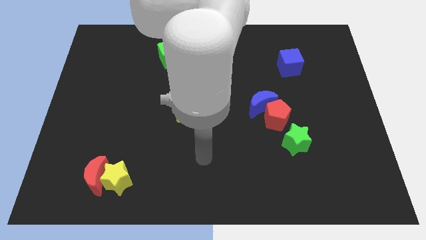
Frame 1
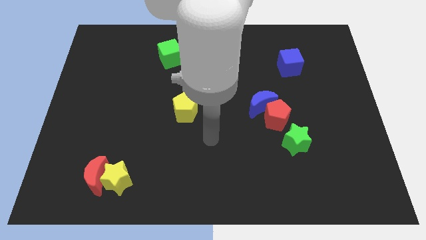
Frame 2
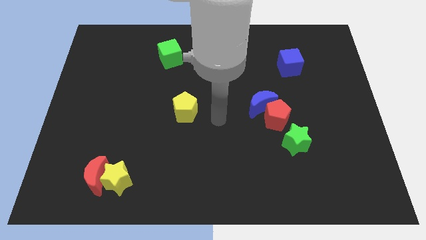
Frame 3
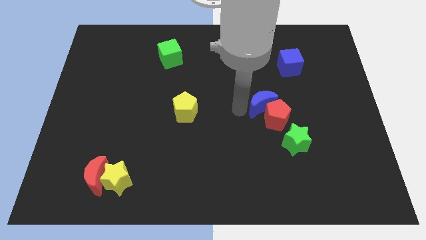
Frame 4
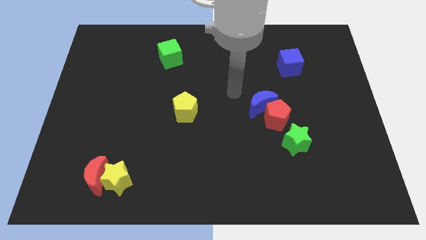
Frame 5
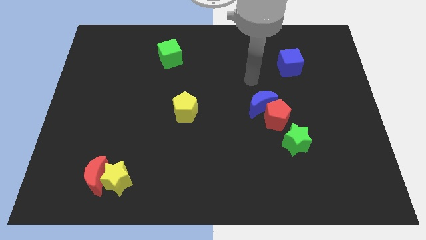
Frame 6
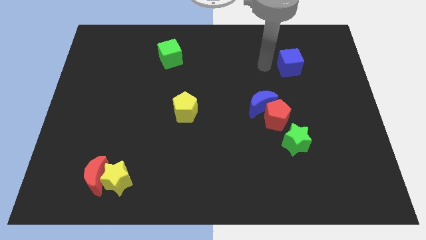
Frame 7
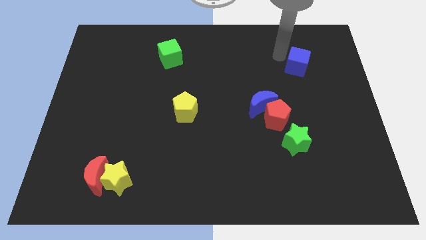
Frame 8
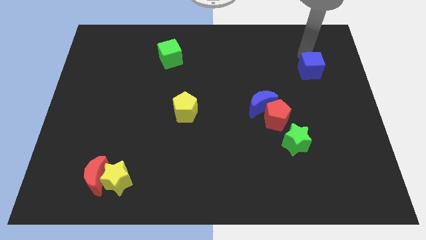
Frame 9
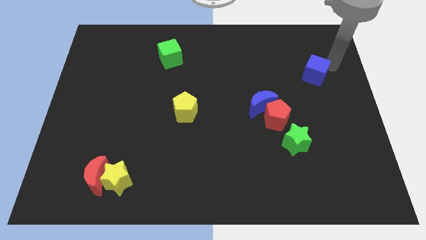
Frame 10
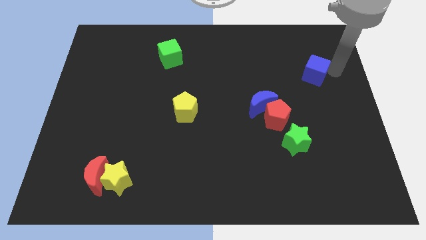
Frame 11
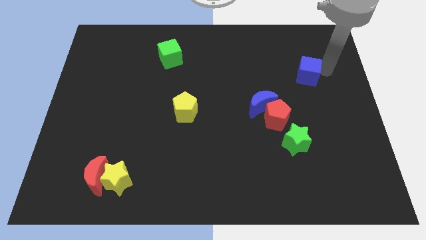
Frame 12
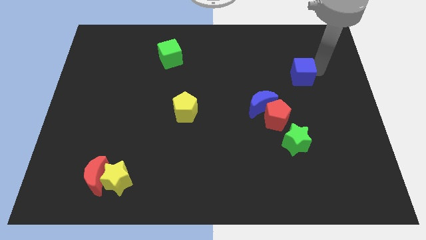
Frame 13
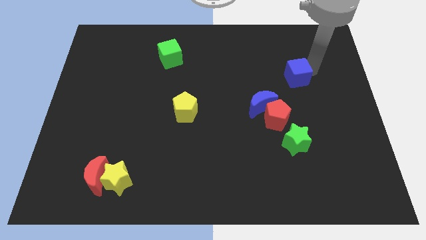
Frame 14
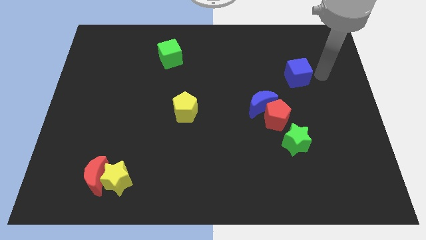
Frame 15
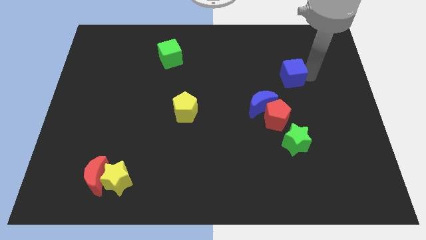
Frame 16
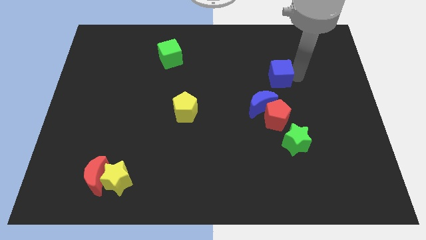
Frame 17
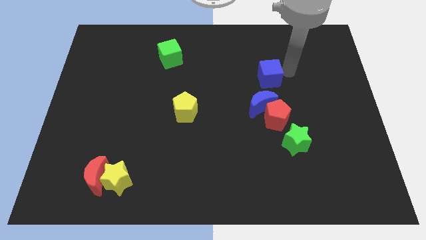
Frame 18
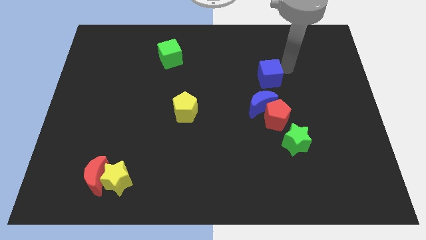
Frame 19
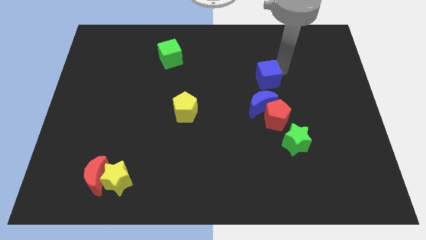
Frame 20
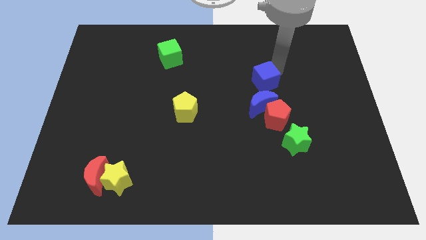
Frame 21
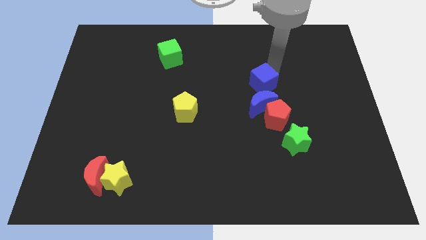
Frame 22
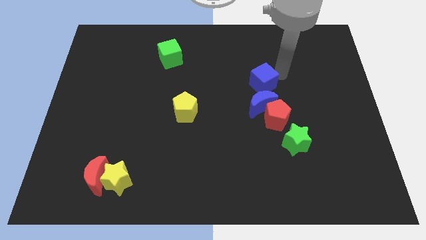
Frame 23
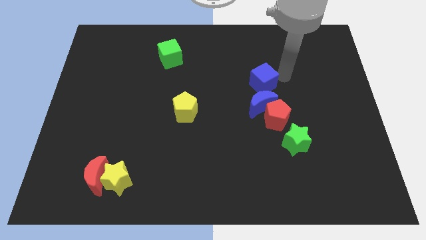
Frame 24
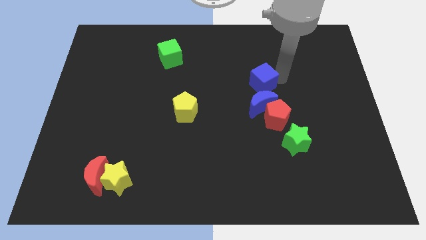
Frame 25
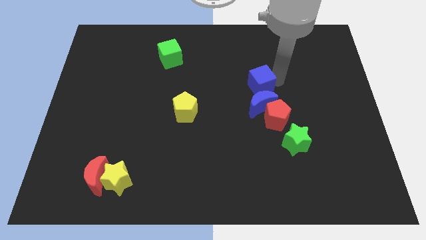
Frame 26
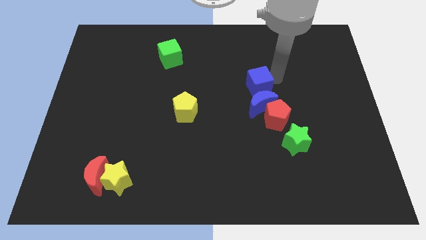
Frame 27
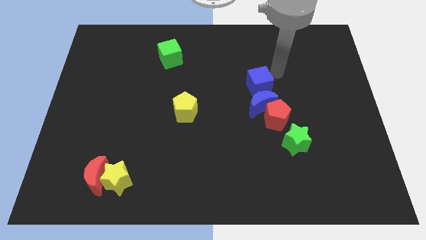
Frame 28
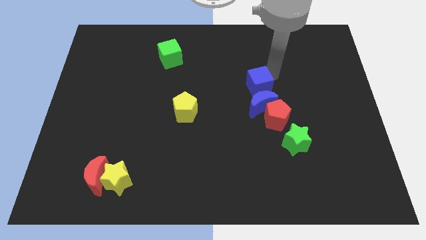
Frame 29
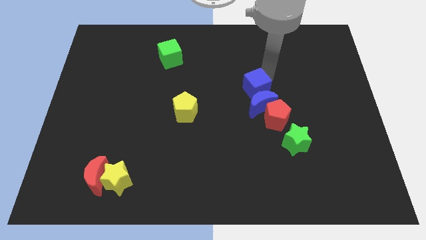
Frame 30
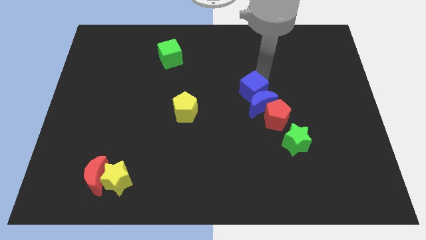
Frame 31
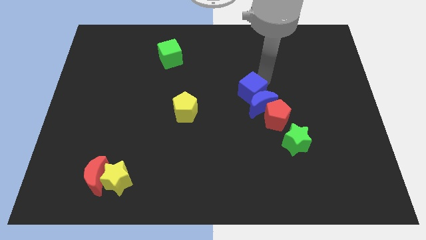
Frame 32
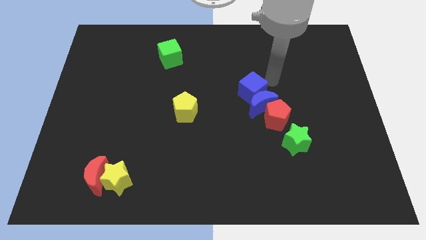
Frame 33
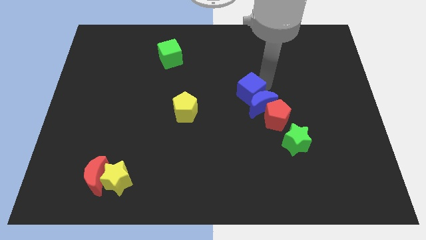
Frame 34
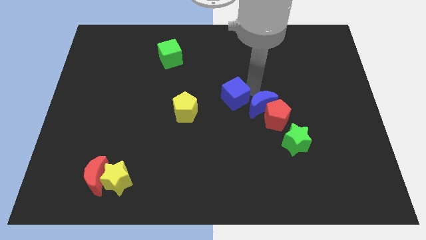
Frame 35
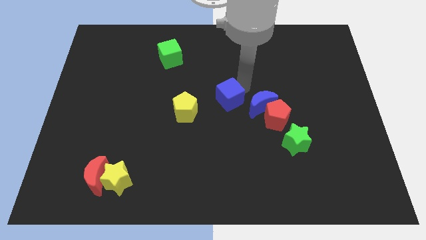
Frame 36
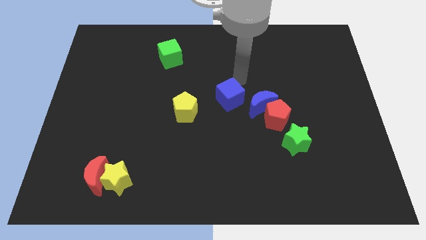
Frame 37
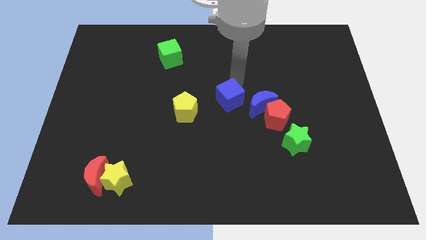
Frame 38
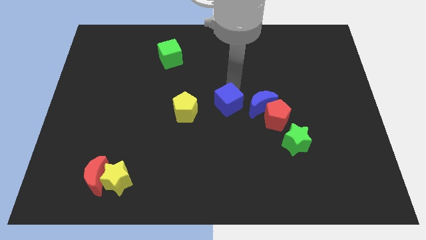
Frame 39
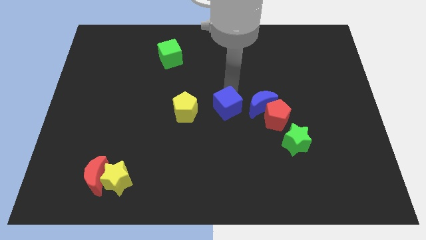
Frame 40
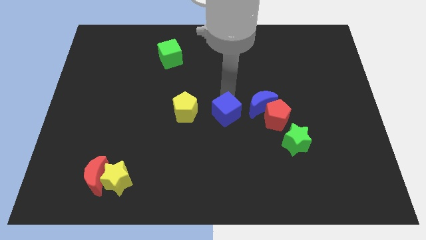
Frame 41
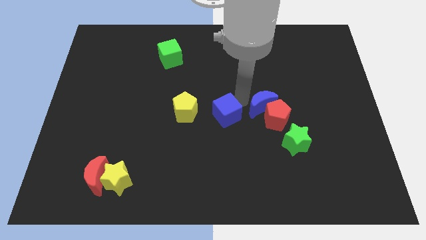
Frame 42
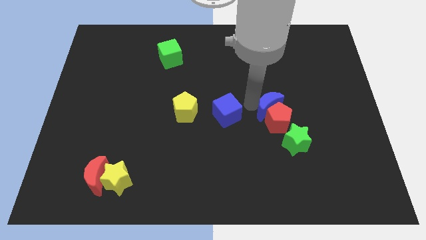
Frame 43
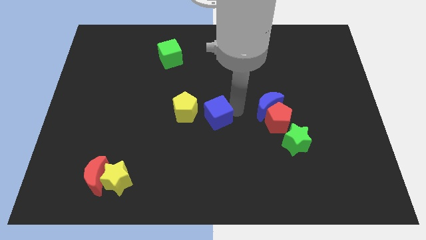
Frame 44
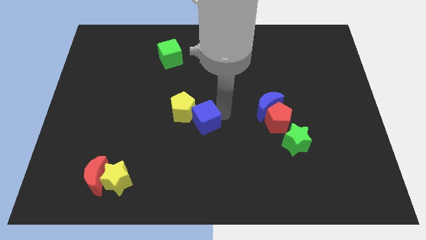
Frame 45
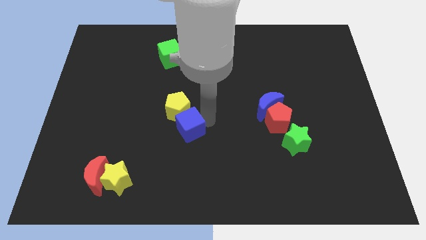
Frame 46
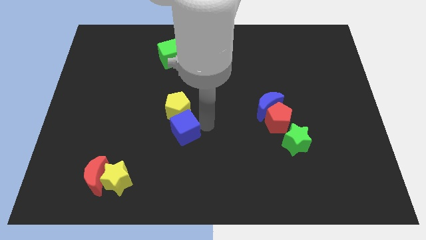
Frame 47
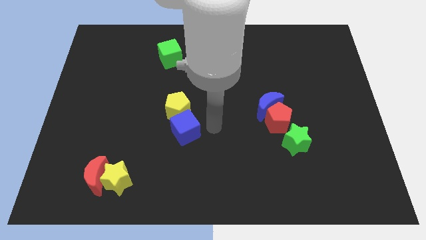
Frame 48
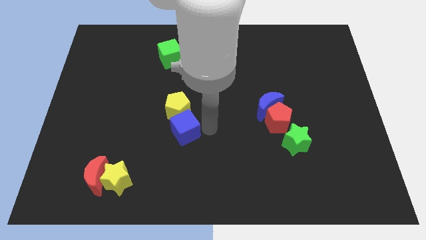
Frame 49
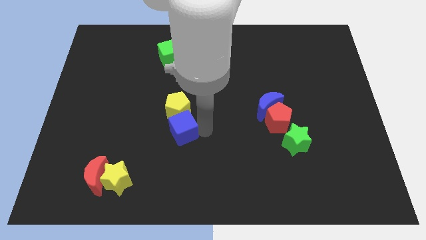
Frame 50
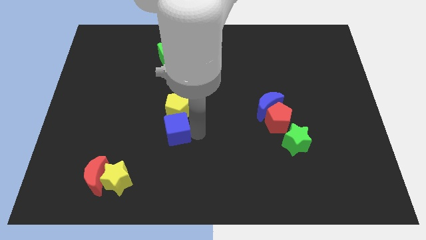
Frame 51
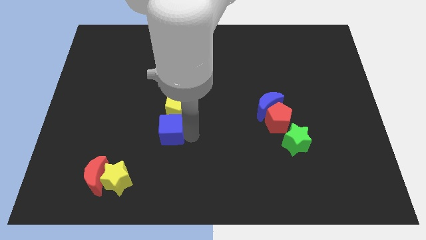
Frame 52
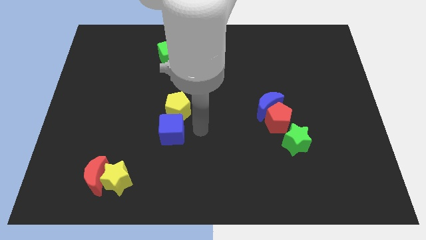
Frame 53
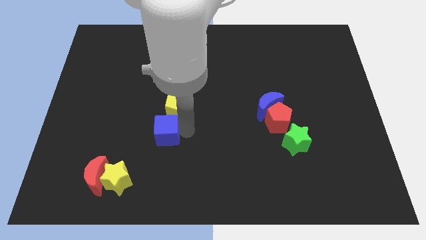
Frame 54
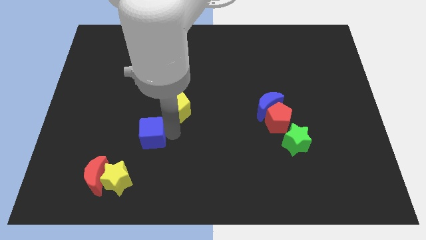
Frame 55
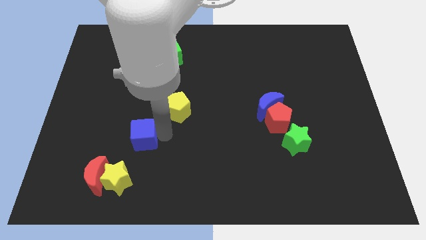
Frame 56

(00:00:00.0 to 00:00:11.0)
move the blue cube above the yellow star

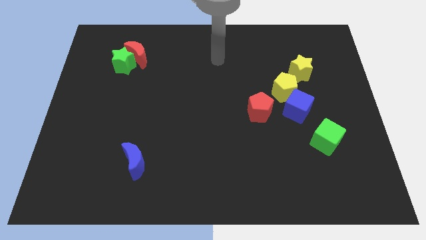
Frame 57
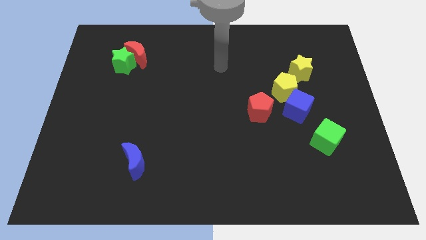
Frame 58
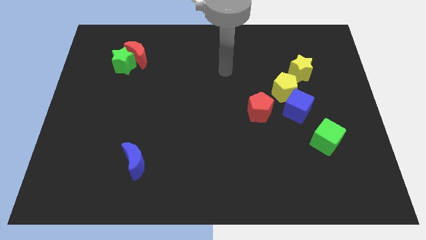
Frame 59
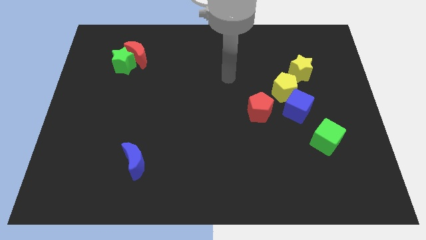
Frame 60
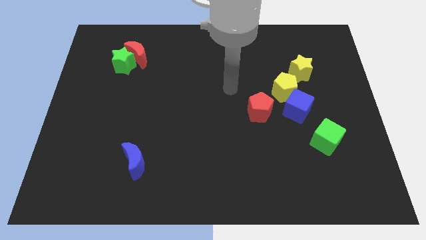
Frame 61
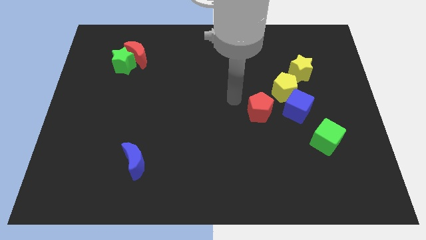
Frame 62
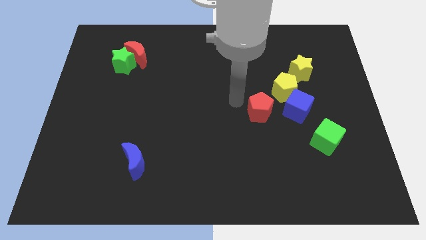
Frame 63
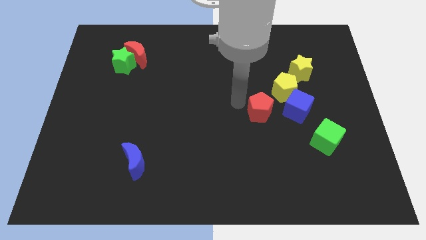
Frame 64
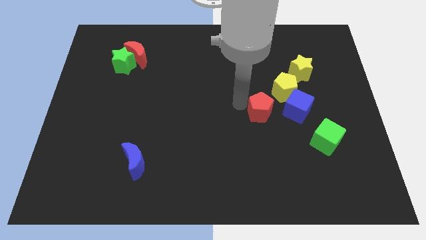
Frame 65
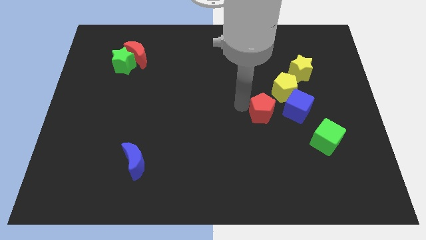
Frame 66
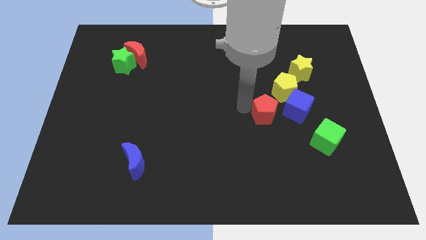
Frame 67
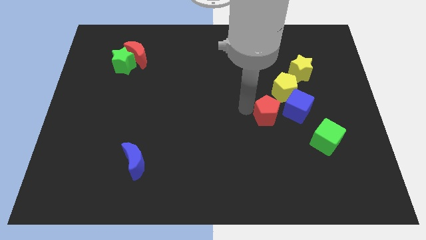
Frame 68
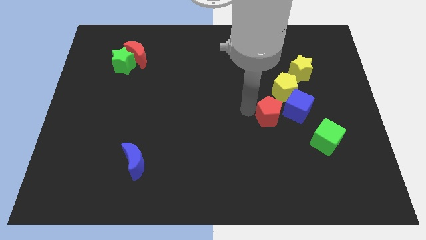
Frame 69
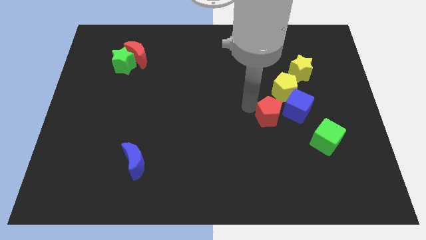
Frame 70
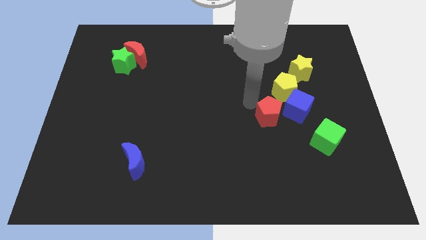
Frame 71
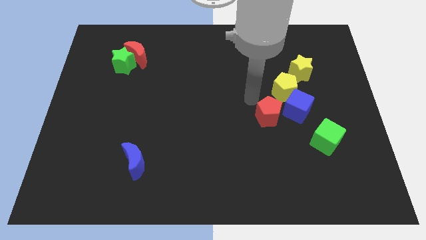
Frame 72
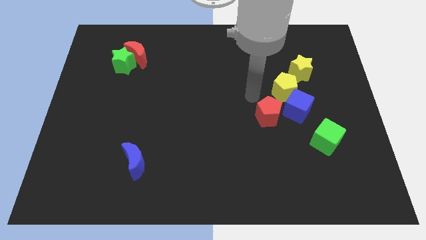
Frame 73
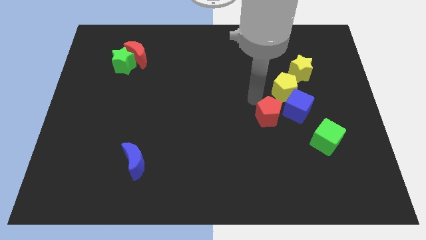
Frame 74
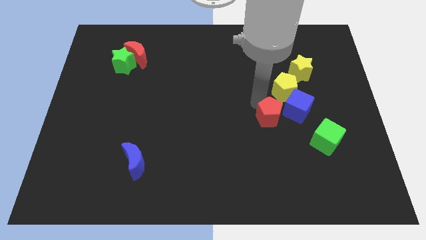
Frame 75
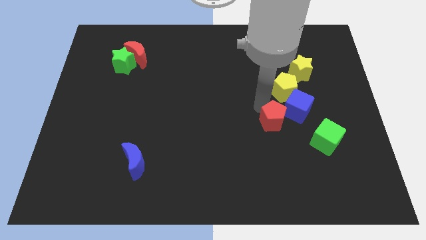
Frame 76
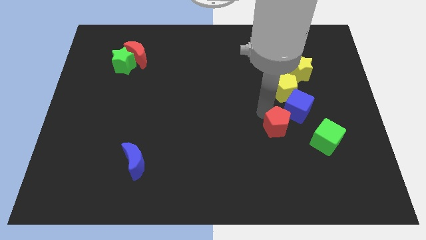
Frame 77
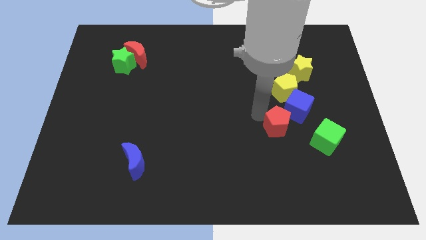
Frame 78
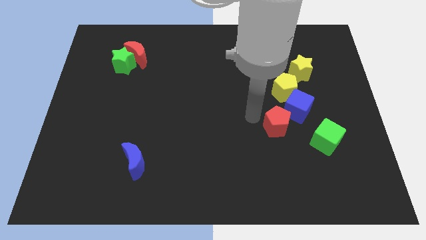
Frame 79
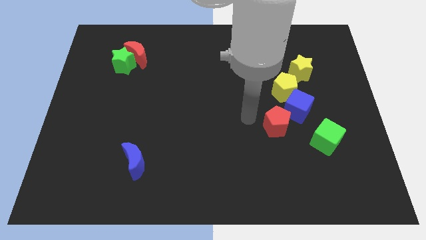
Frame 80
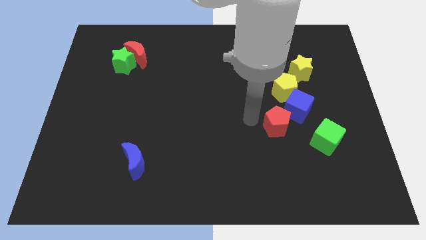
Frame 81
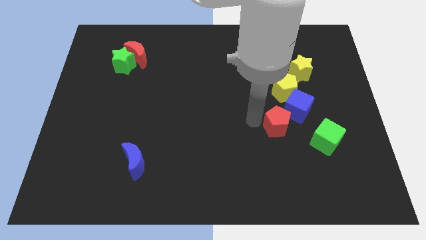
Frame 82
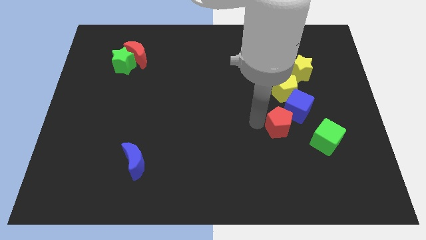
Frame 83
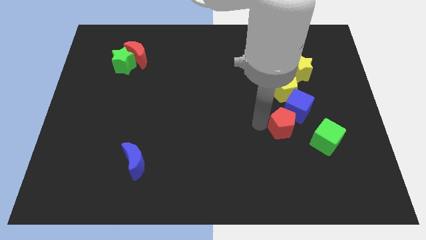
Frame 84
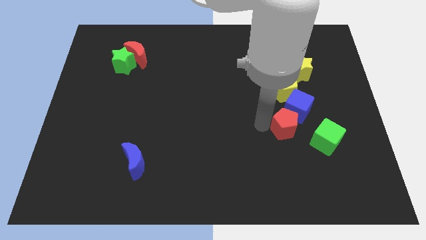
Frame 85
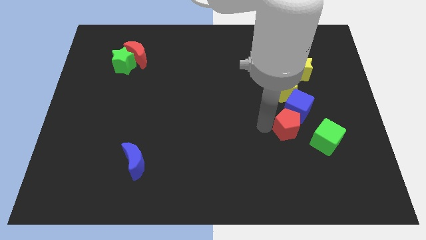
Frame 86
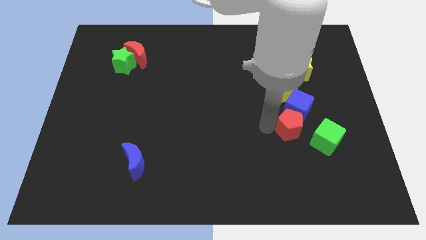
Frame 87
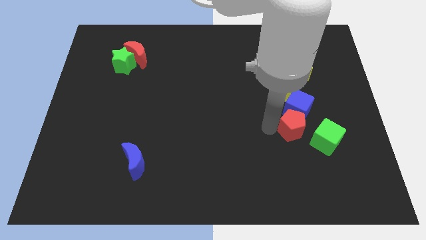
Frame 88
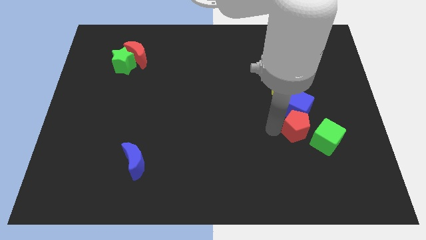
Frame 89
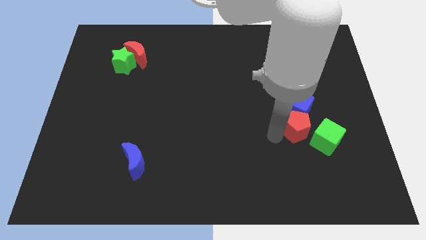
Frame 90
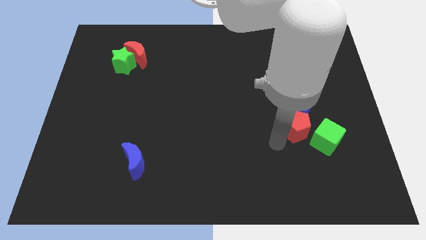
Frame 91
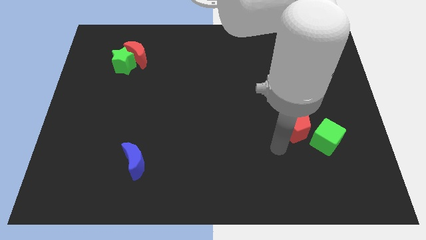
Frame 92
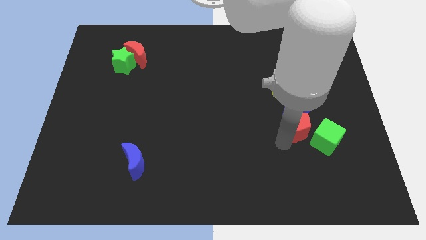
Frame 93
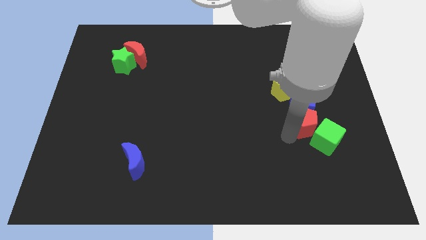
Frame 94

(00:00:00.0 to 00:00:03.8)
put the red pentagon to the top side of the green cube
